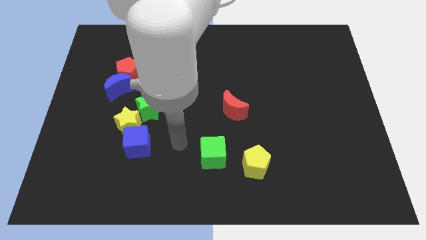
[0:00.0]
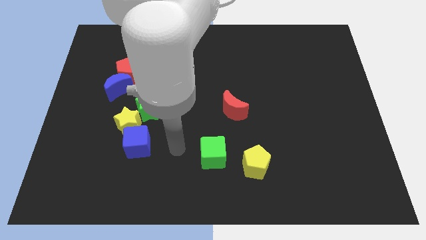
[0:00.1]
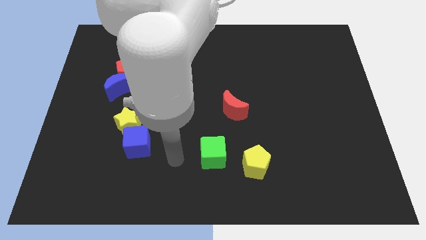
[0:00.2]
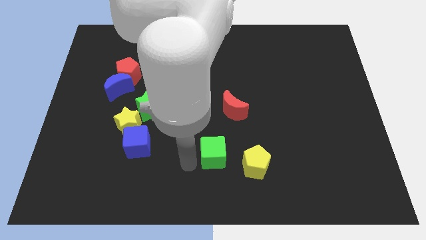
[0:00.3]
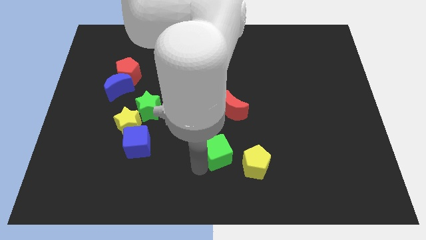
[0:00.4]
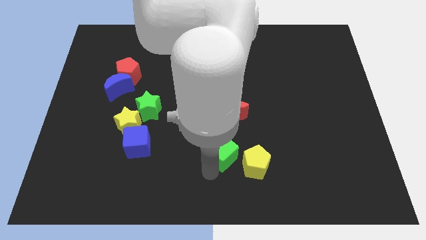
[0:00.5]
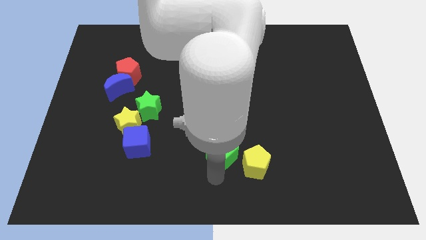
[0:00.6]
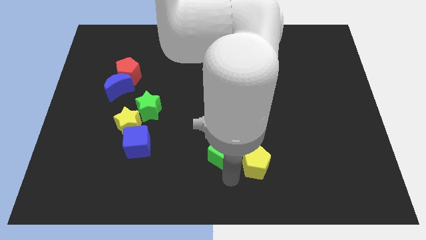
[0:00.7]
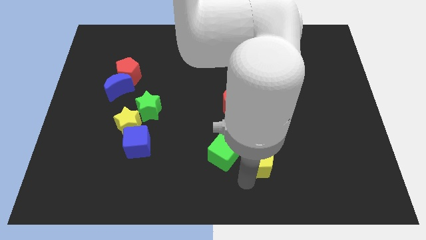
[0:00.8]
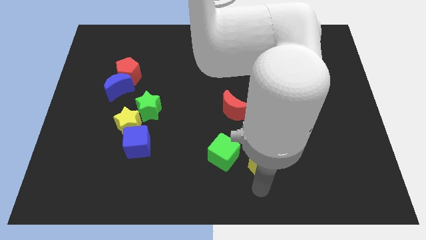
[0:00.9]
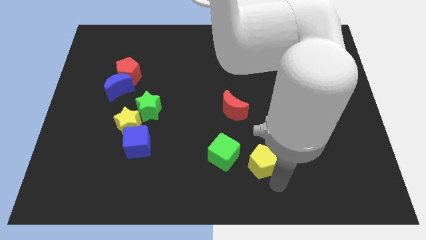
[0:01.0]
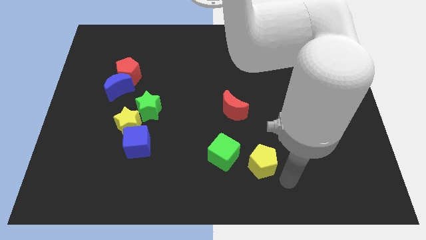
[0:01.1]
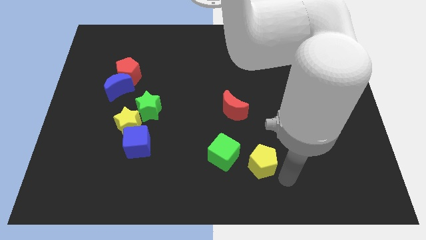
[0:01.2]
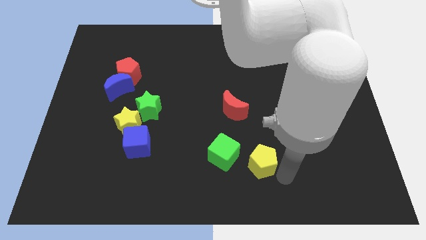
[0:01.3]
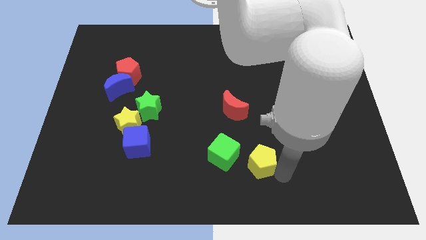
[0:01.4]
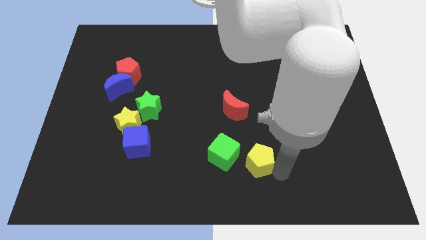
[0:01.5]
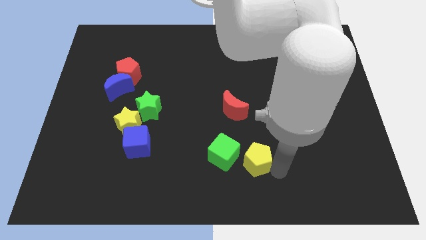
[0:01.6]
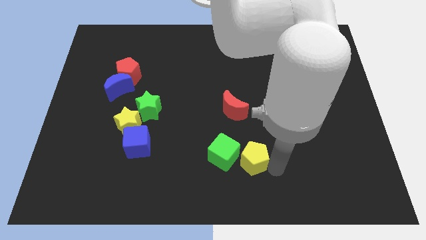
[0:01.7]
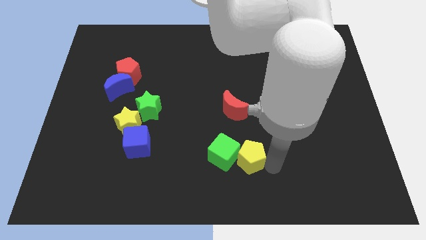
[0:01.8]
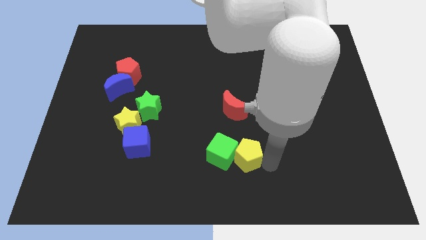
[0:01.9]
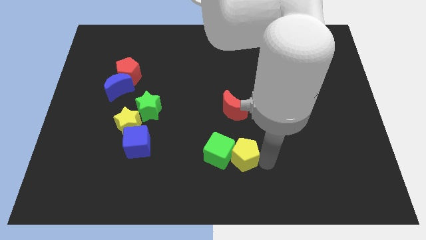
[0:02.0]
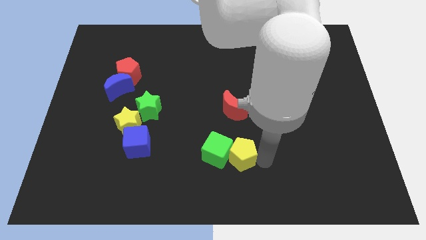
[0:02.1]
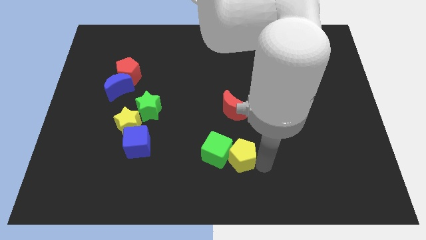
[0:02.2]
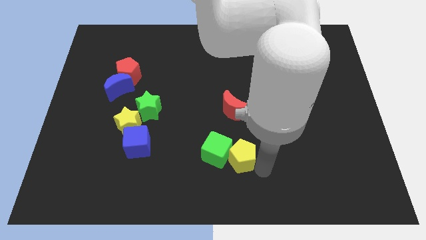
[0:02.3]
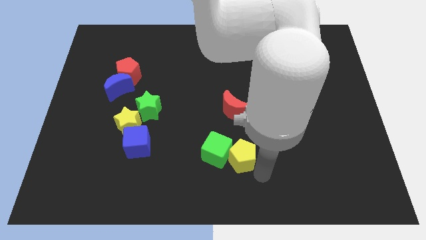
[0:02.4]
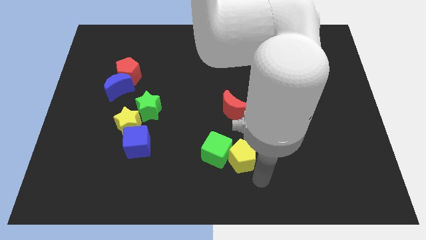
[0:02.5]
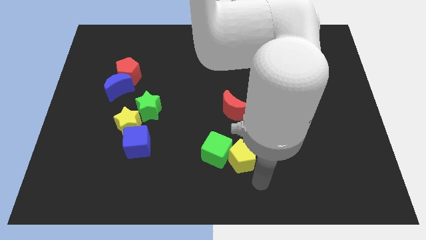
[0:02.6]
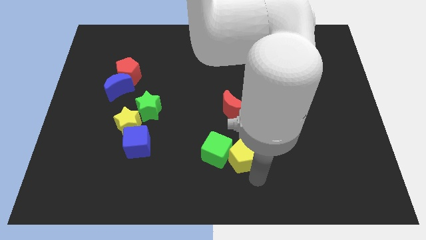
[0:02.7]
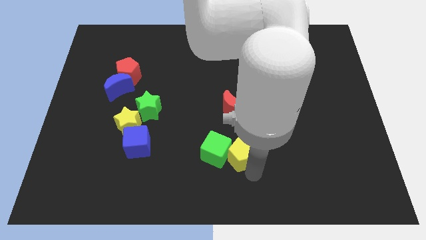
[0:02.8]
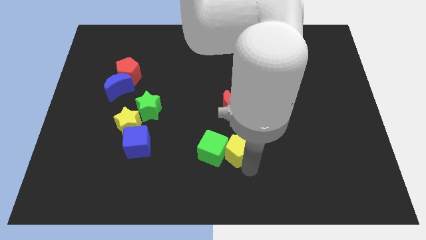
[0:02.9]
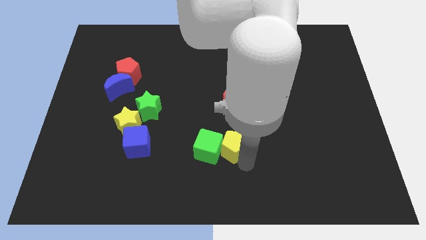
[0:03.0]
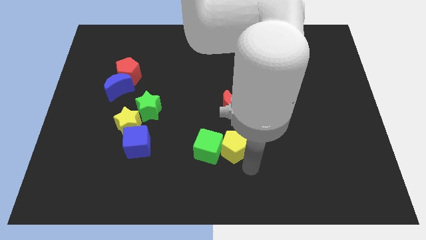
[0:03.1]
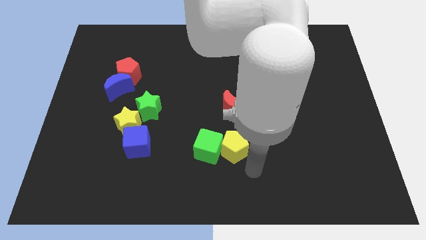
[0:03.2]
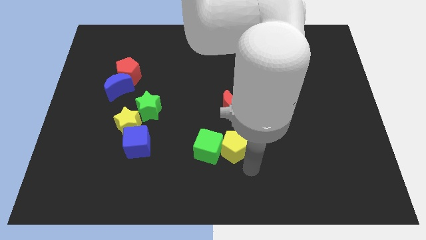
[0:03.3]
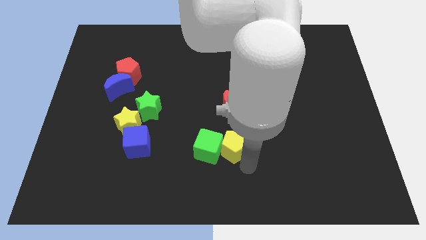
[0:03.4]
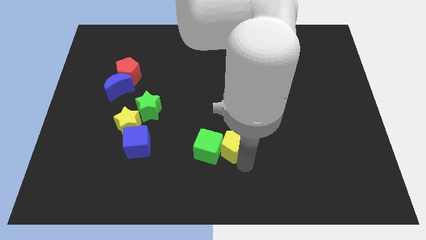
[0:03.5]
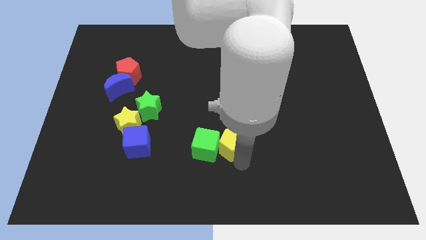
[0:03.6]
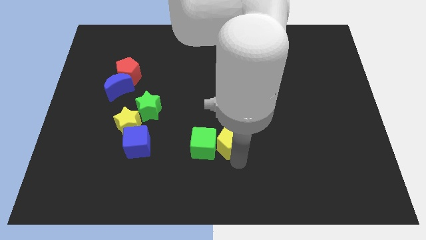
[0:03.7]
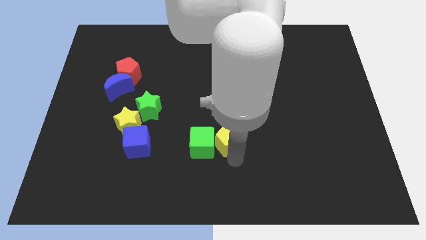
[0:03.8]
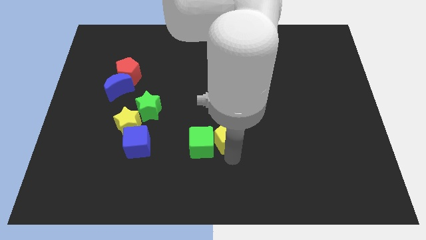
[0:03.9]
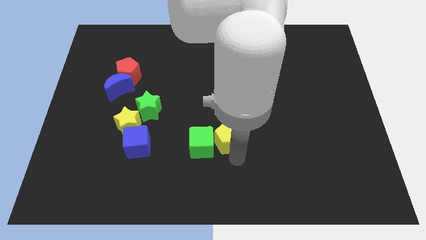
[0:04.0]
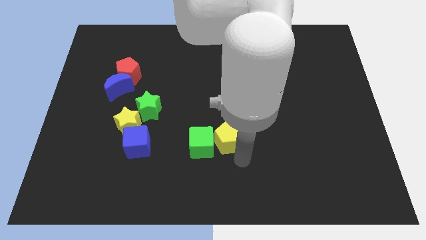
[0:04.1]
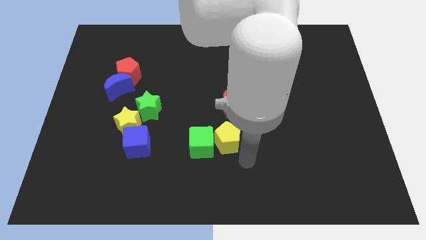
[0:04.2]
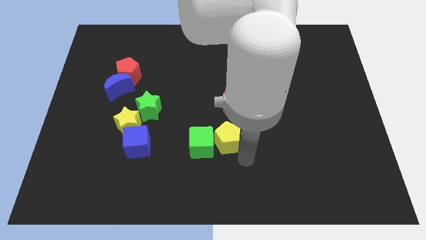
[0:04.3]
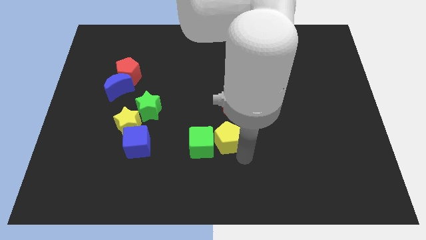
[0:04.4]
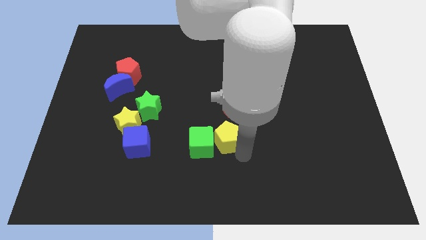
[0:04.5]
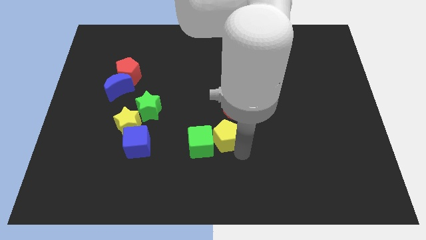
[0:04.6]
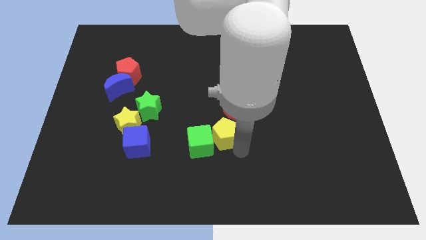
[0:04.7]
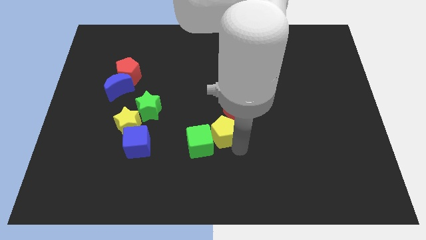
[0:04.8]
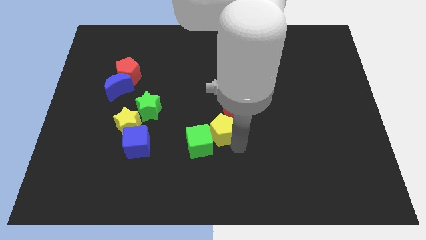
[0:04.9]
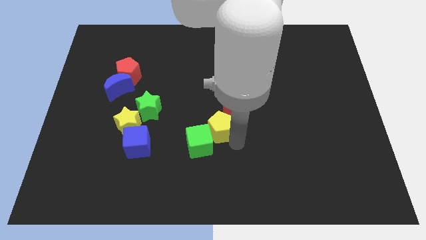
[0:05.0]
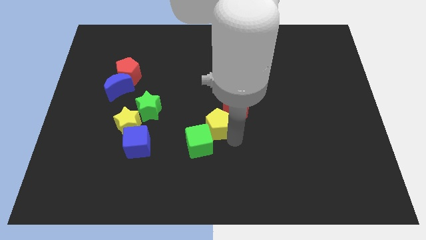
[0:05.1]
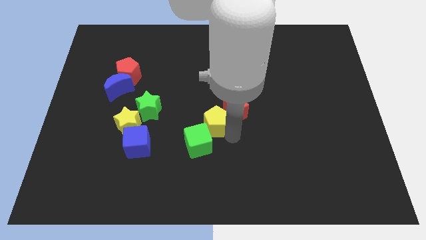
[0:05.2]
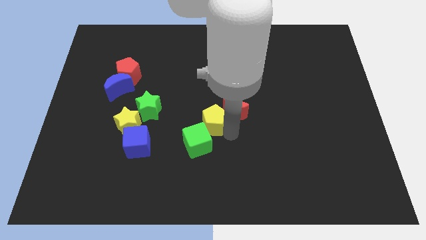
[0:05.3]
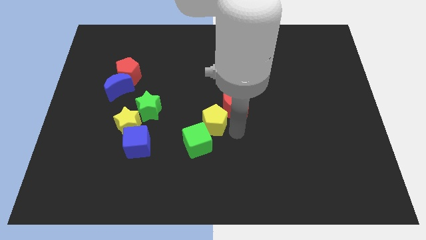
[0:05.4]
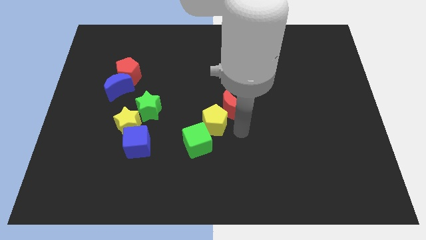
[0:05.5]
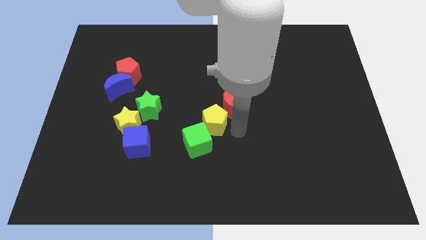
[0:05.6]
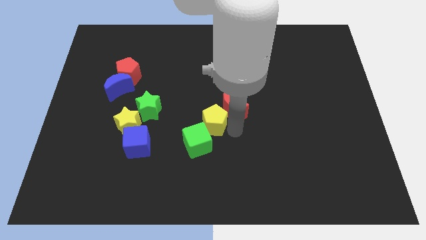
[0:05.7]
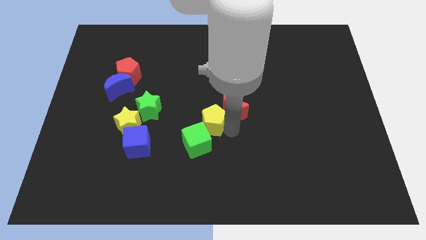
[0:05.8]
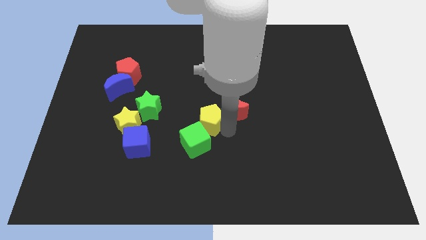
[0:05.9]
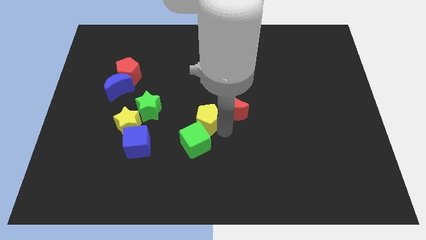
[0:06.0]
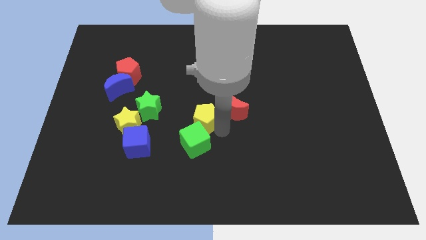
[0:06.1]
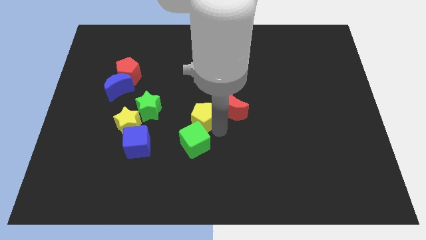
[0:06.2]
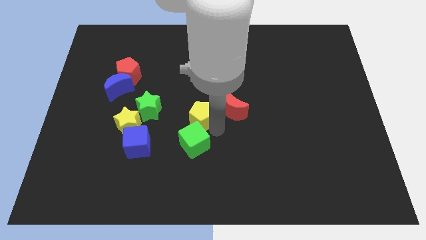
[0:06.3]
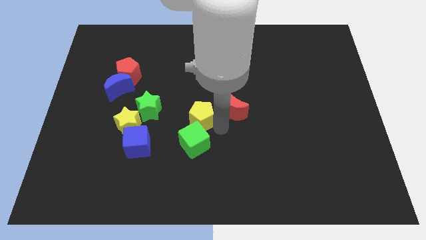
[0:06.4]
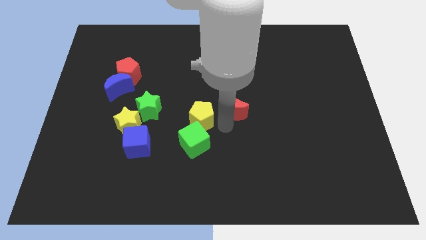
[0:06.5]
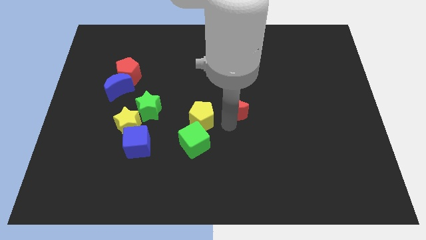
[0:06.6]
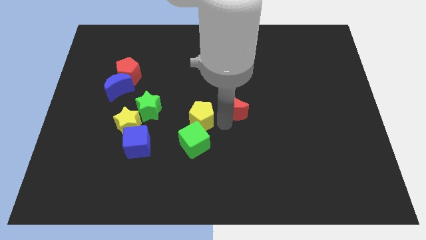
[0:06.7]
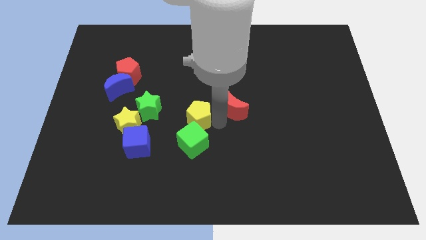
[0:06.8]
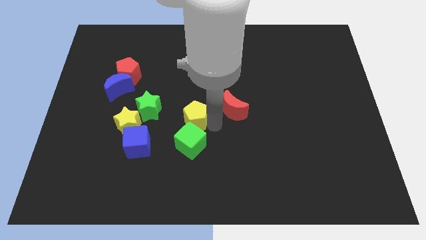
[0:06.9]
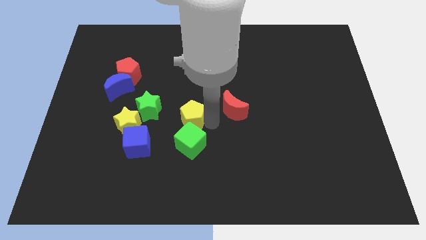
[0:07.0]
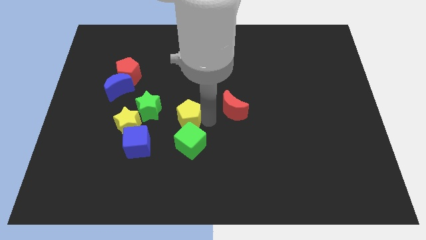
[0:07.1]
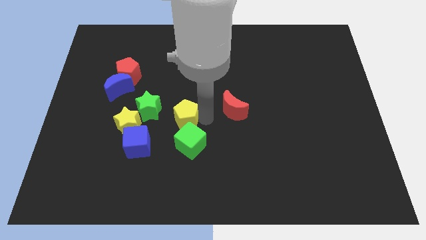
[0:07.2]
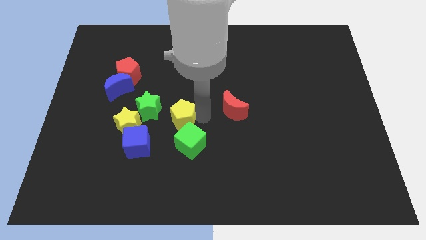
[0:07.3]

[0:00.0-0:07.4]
slide the yellow pentagon diagonally up and to the left

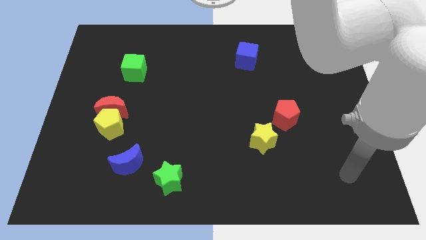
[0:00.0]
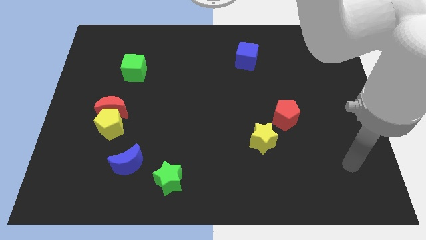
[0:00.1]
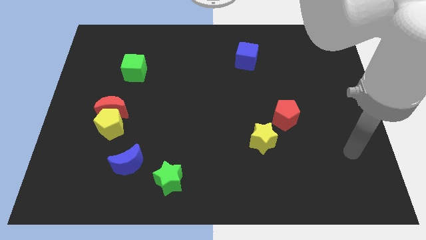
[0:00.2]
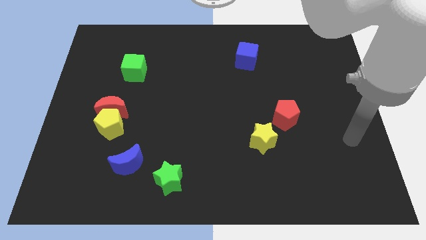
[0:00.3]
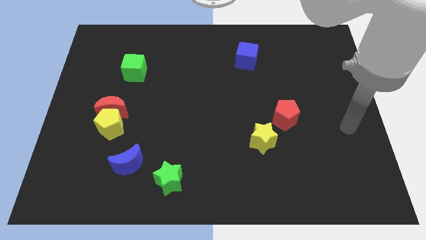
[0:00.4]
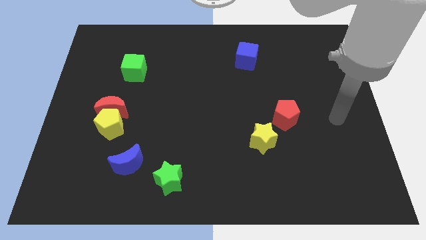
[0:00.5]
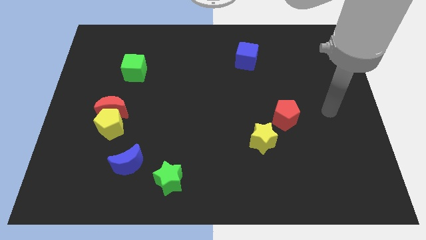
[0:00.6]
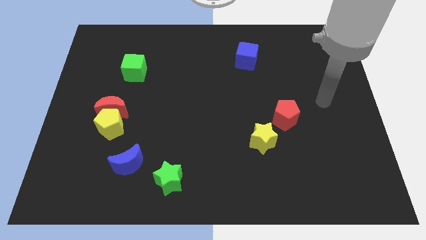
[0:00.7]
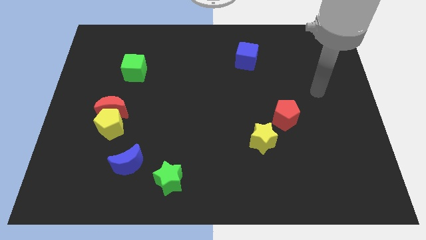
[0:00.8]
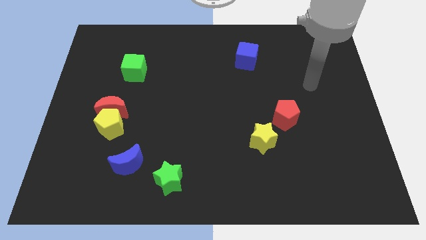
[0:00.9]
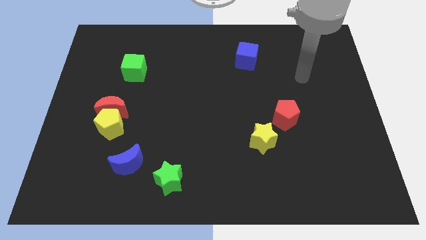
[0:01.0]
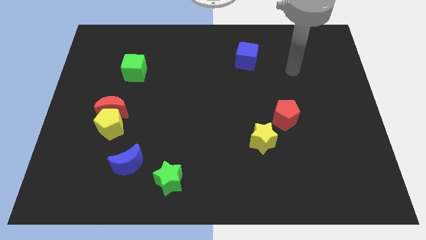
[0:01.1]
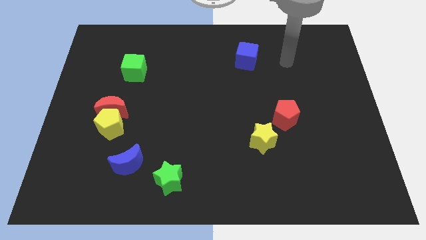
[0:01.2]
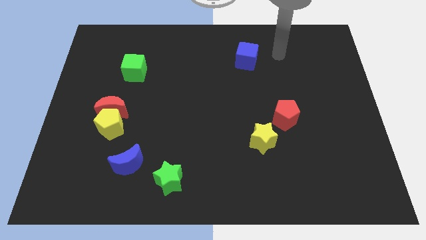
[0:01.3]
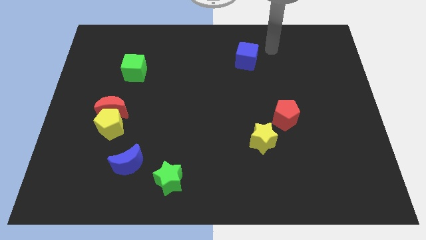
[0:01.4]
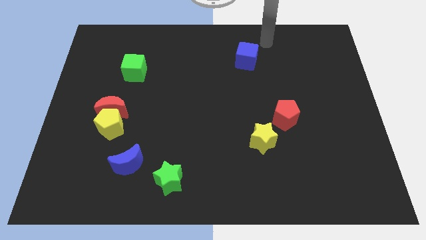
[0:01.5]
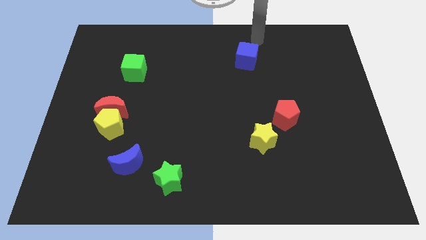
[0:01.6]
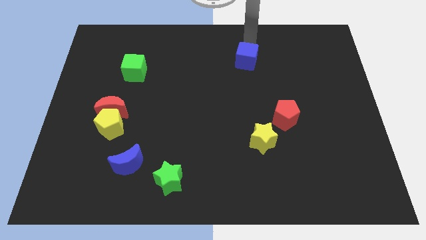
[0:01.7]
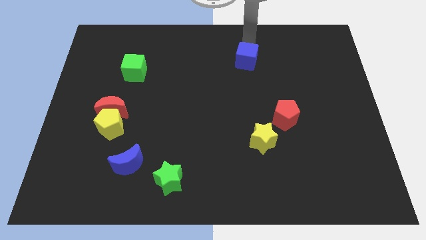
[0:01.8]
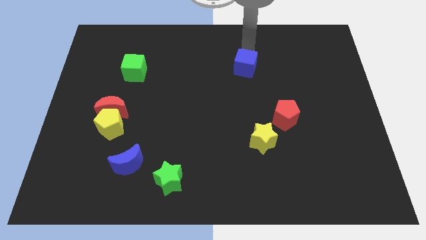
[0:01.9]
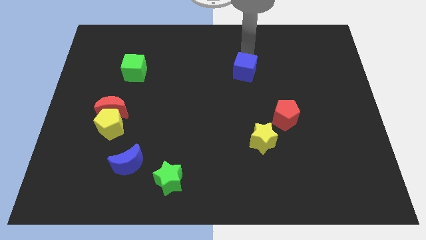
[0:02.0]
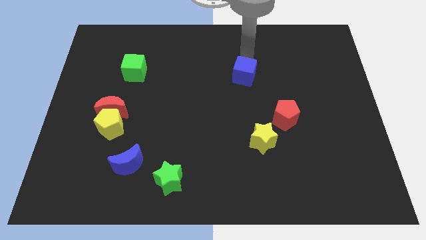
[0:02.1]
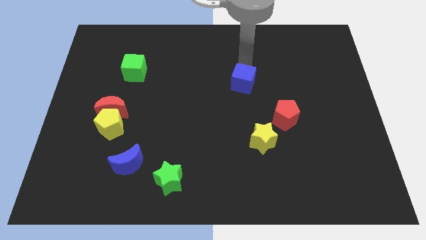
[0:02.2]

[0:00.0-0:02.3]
move the blue cube a little bit down
